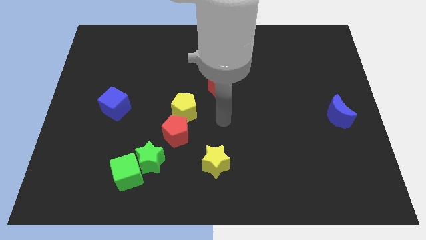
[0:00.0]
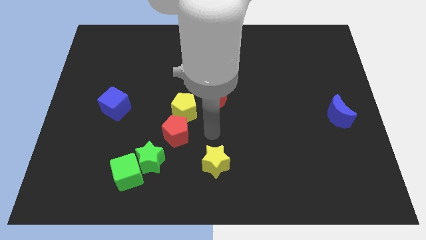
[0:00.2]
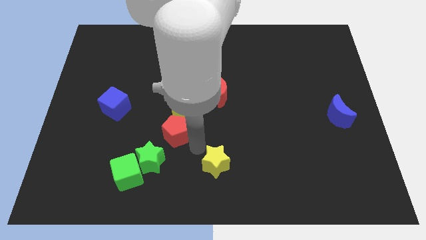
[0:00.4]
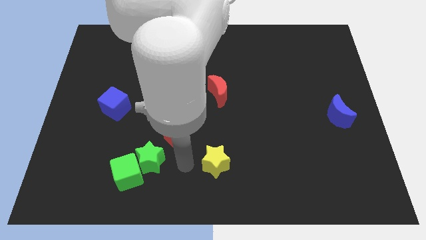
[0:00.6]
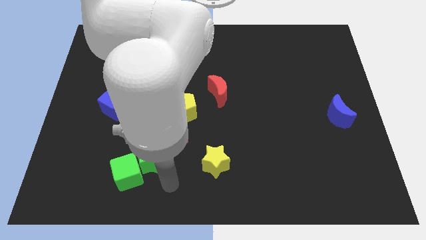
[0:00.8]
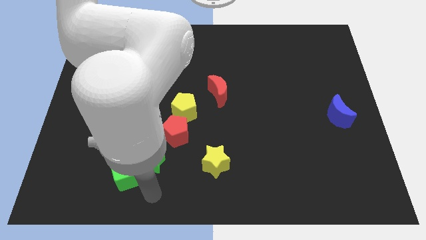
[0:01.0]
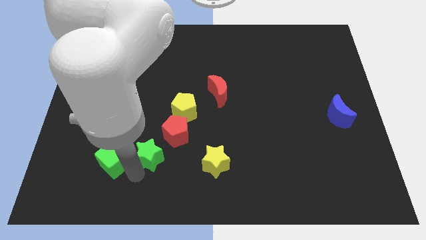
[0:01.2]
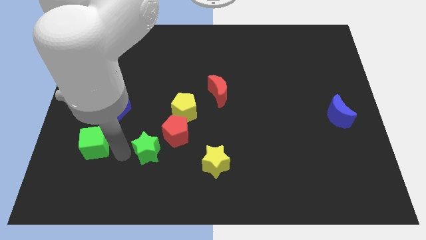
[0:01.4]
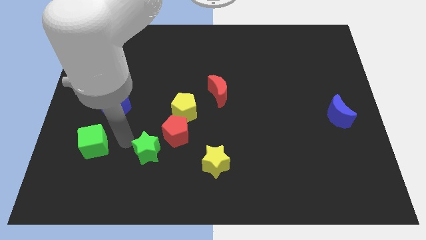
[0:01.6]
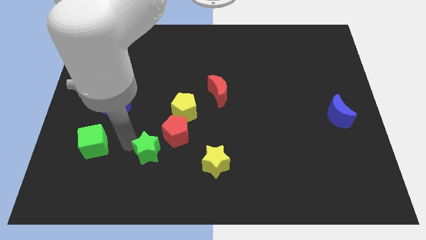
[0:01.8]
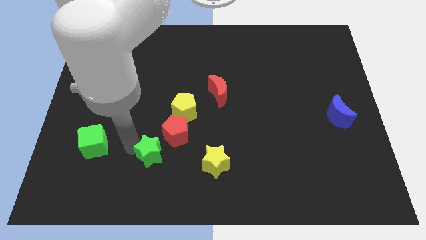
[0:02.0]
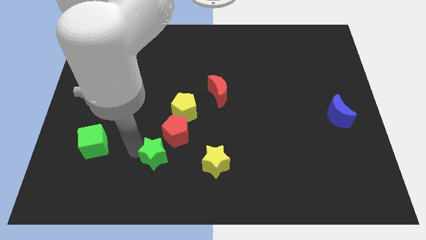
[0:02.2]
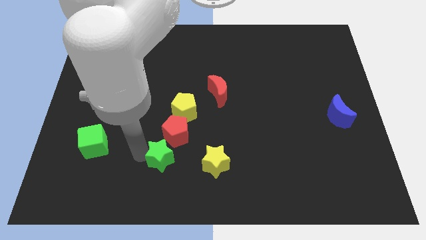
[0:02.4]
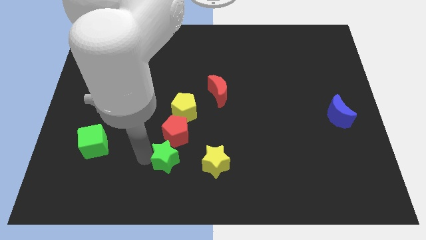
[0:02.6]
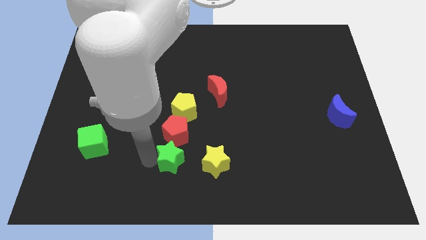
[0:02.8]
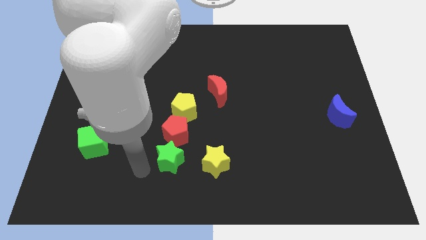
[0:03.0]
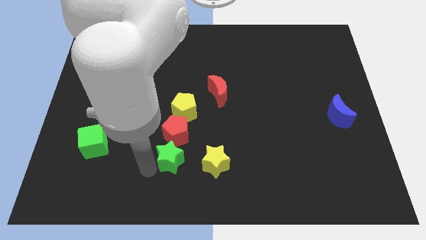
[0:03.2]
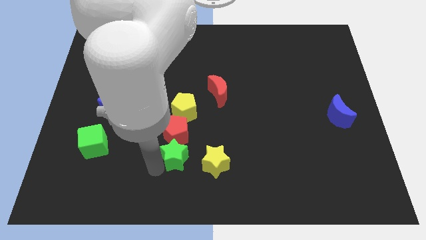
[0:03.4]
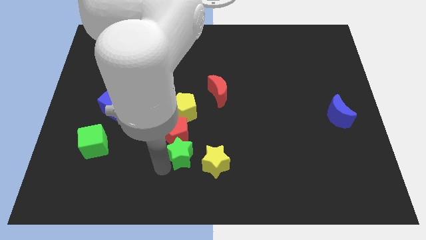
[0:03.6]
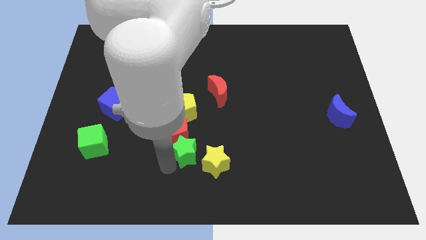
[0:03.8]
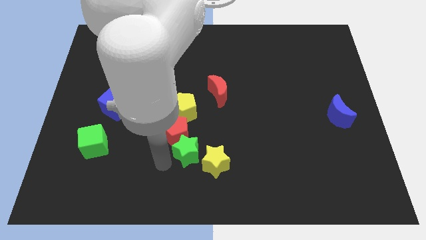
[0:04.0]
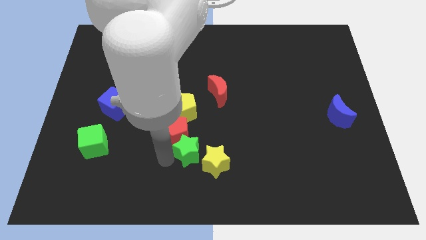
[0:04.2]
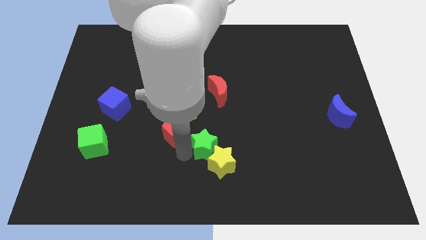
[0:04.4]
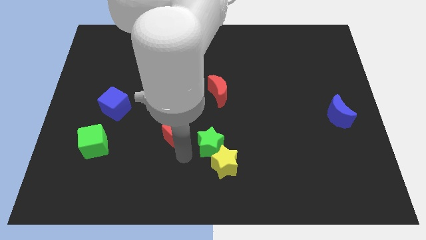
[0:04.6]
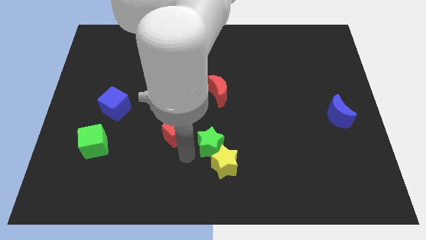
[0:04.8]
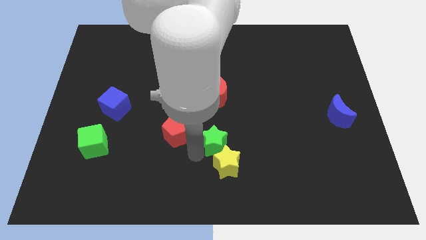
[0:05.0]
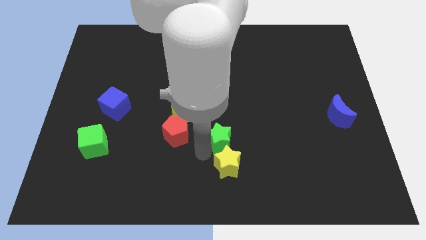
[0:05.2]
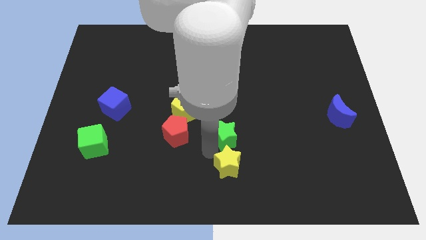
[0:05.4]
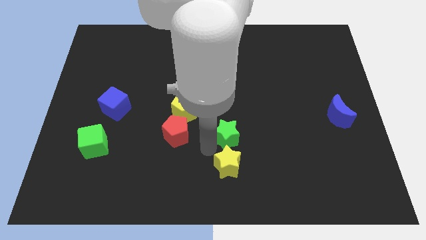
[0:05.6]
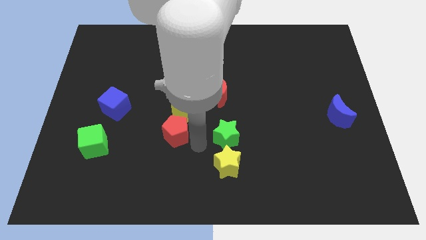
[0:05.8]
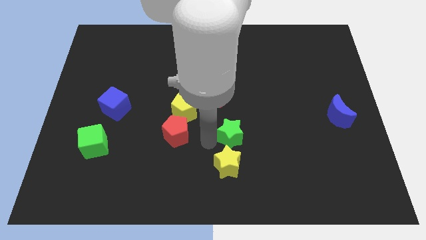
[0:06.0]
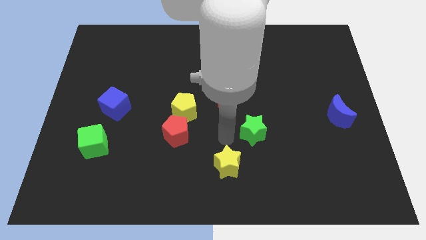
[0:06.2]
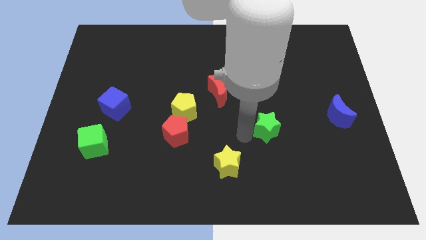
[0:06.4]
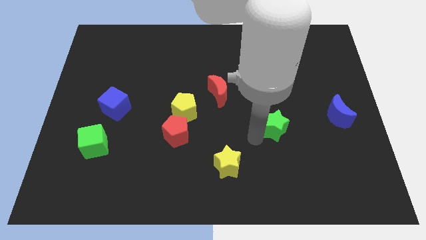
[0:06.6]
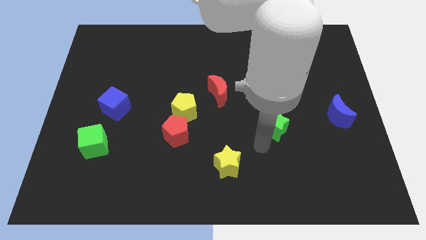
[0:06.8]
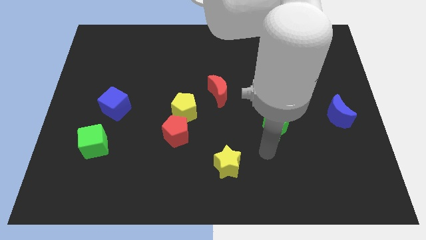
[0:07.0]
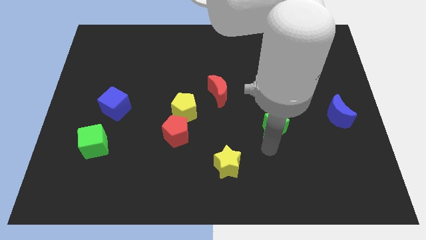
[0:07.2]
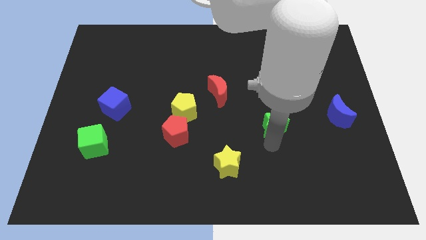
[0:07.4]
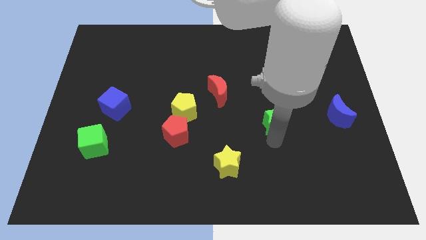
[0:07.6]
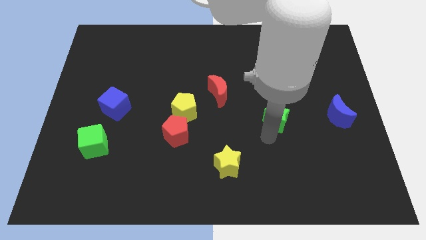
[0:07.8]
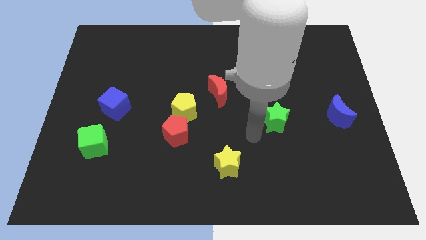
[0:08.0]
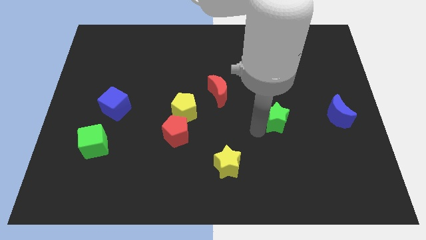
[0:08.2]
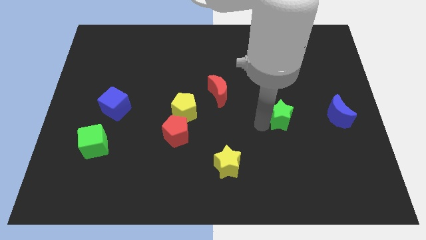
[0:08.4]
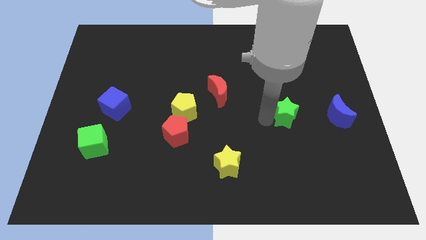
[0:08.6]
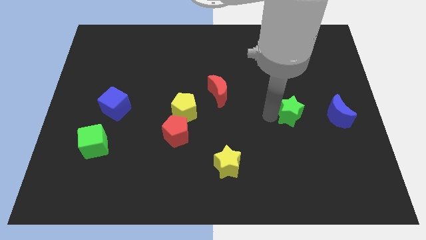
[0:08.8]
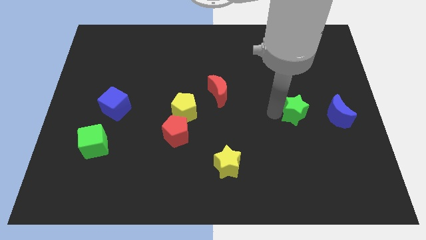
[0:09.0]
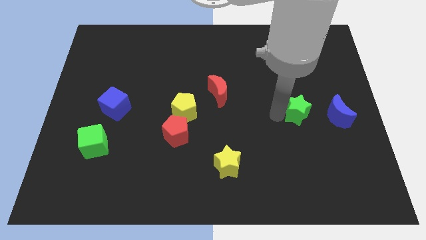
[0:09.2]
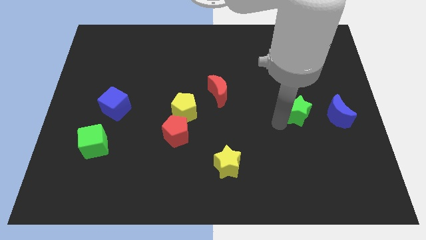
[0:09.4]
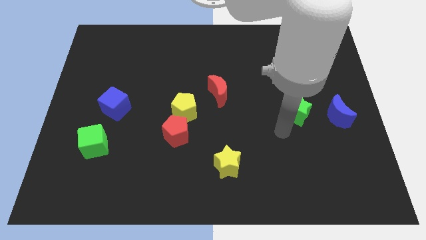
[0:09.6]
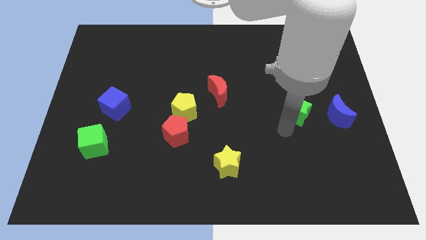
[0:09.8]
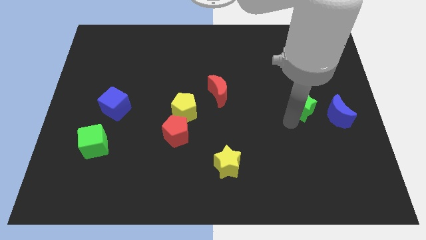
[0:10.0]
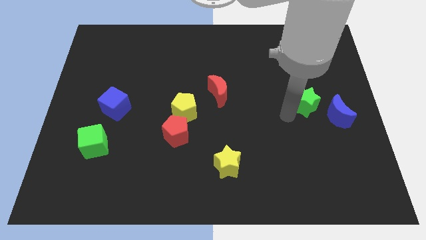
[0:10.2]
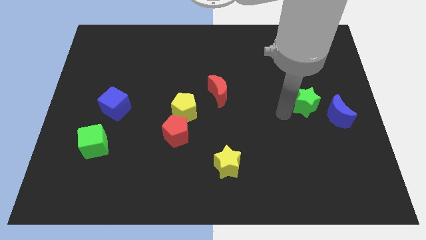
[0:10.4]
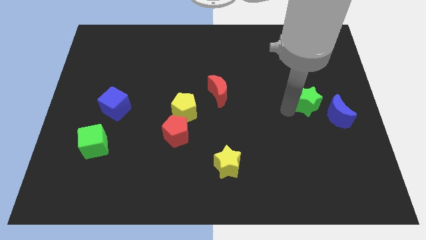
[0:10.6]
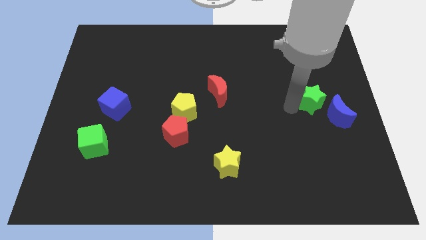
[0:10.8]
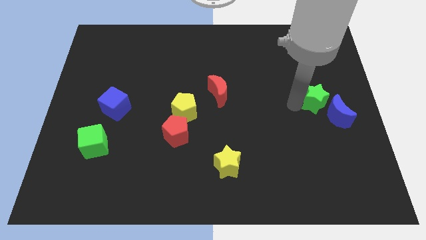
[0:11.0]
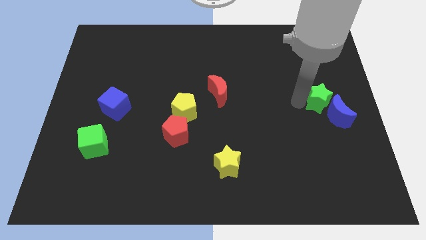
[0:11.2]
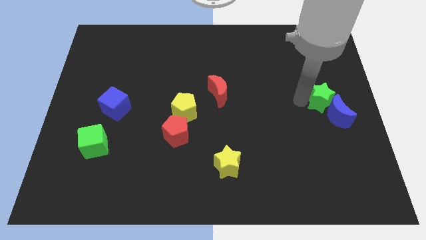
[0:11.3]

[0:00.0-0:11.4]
put the green star to the center right

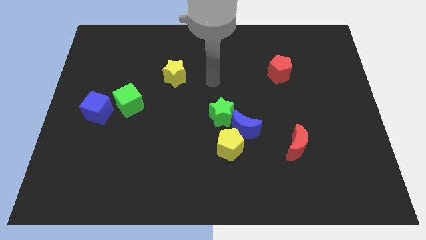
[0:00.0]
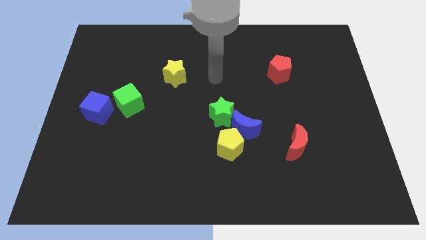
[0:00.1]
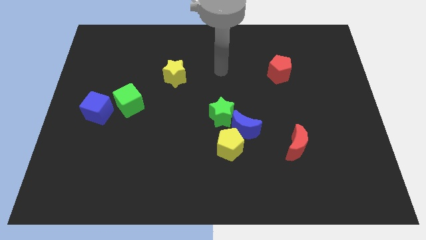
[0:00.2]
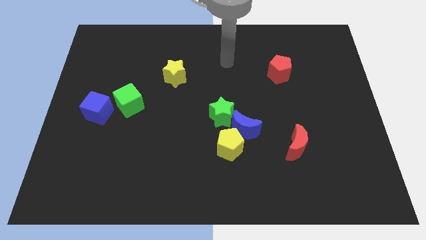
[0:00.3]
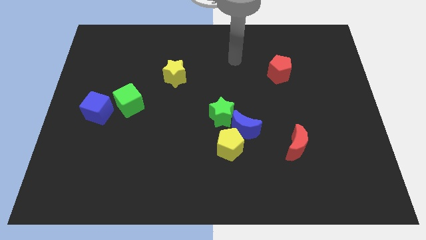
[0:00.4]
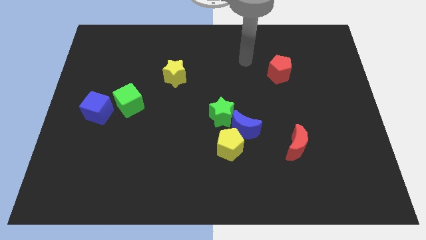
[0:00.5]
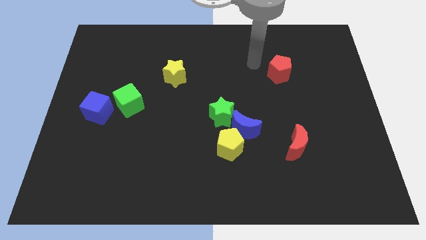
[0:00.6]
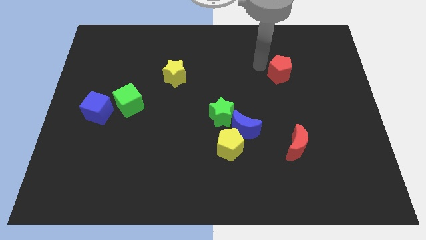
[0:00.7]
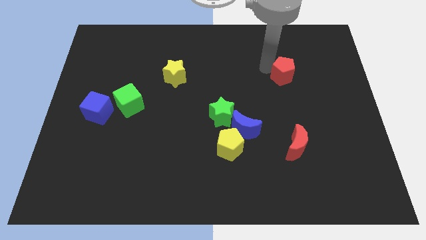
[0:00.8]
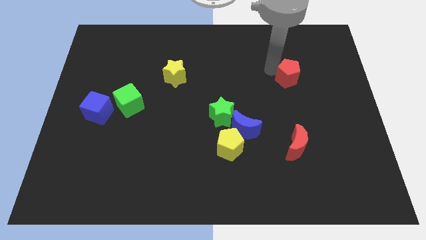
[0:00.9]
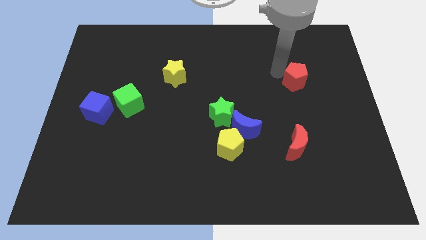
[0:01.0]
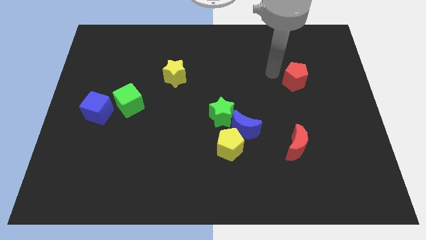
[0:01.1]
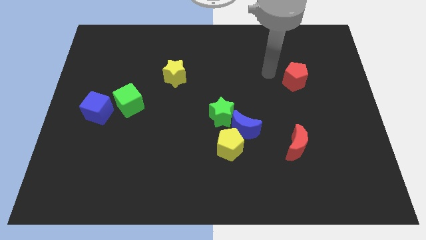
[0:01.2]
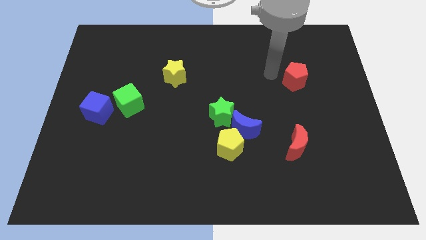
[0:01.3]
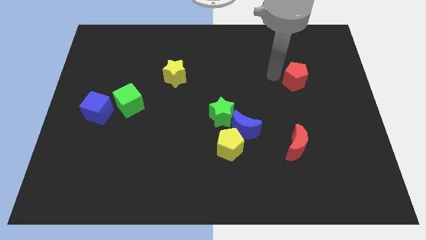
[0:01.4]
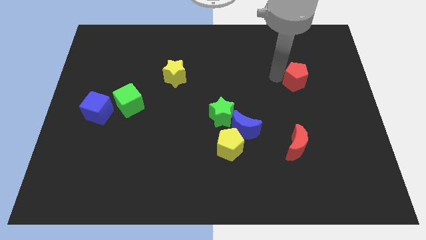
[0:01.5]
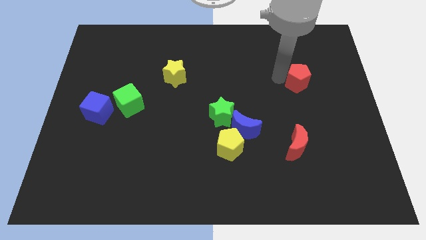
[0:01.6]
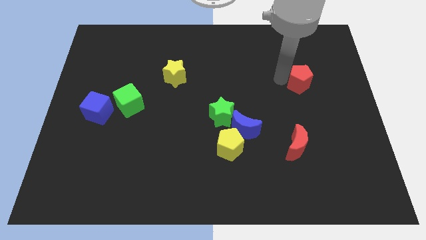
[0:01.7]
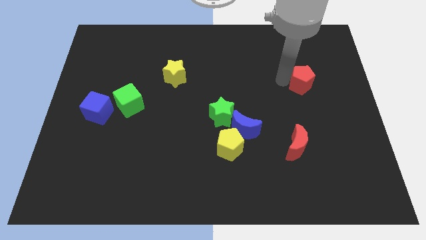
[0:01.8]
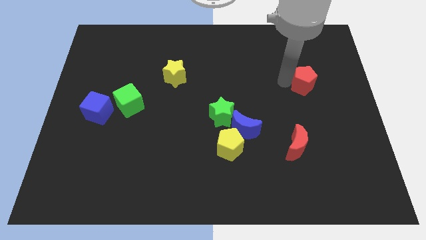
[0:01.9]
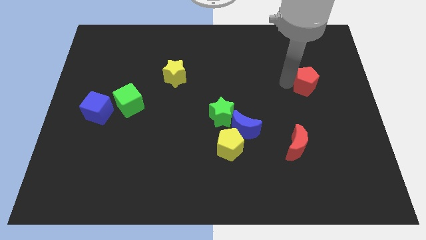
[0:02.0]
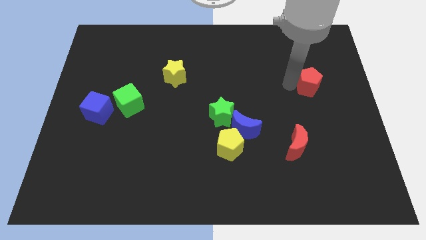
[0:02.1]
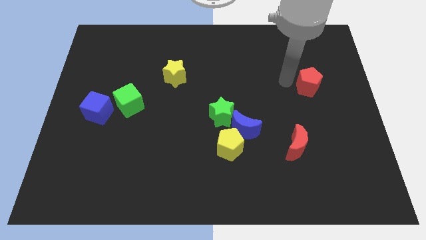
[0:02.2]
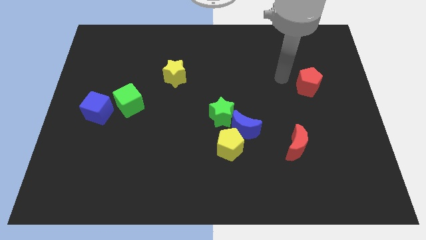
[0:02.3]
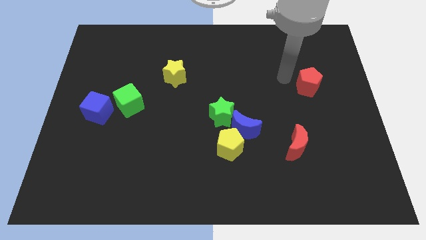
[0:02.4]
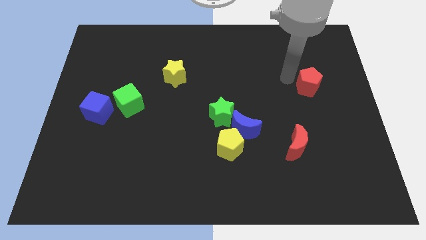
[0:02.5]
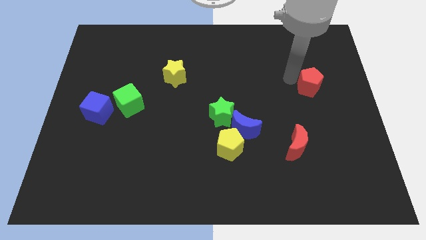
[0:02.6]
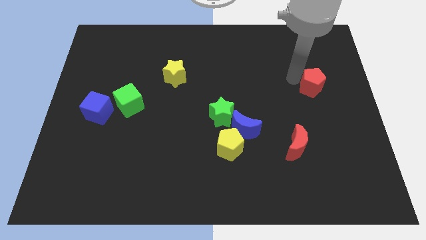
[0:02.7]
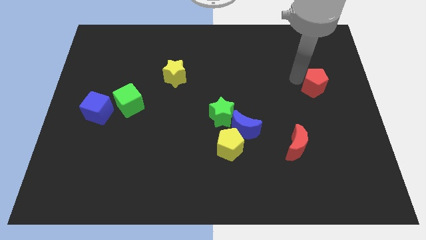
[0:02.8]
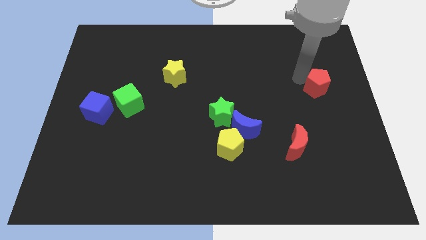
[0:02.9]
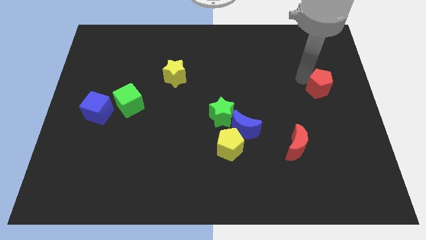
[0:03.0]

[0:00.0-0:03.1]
move the red pentagon to the center right
